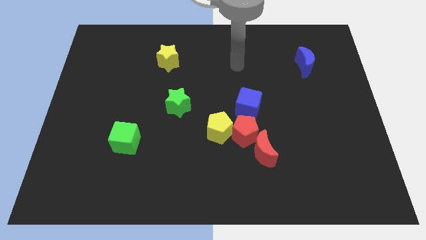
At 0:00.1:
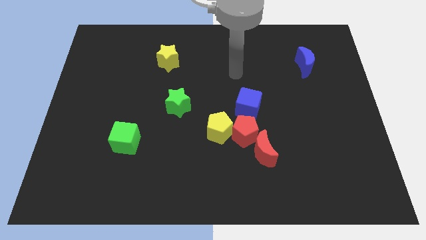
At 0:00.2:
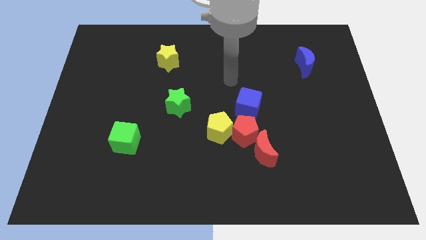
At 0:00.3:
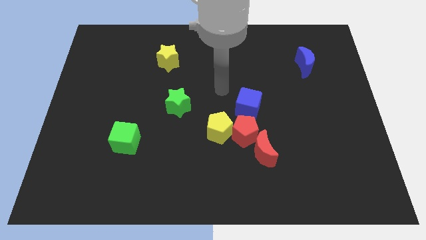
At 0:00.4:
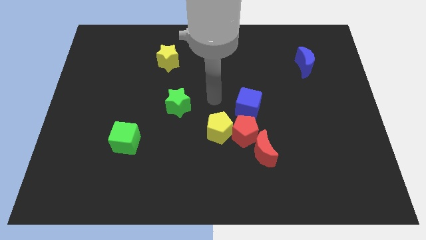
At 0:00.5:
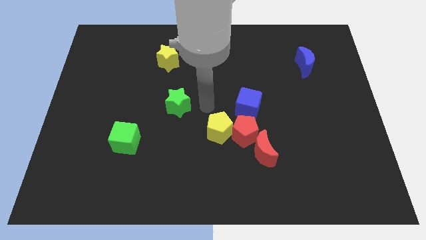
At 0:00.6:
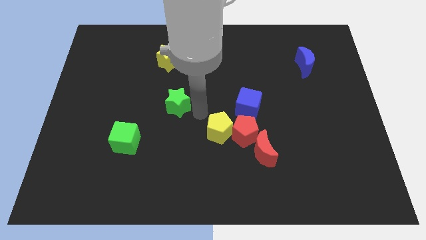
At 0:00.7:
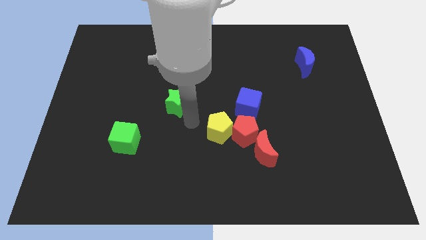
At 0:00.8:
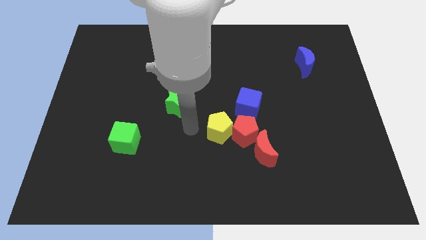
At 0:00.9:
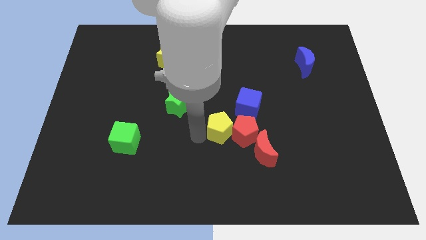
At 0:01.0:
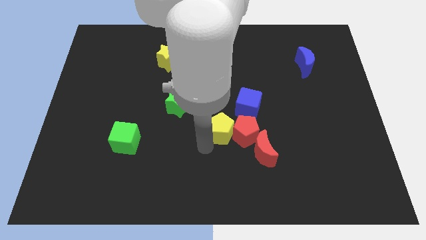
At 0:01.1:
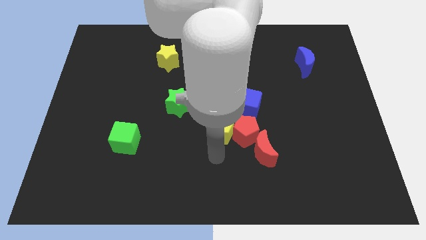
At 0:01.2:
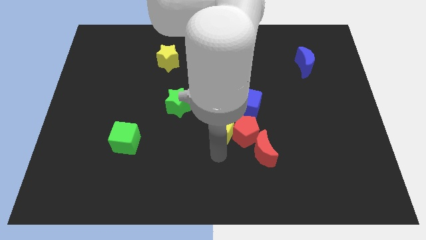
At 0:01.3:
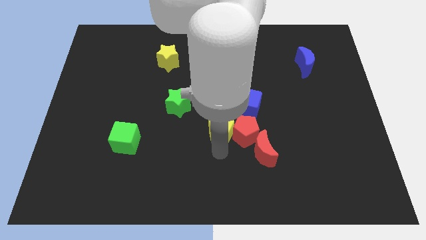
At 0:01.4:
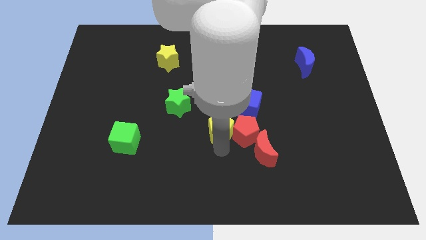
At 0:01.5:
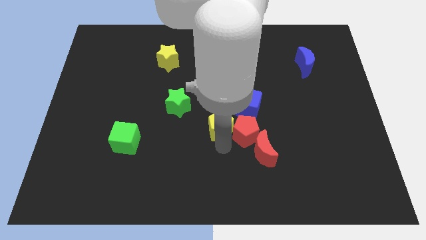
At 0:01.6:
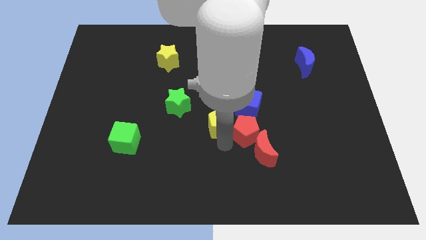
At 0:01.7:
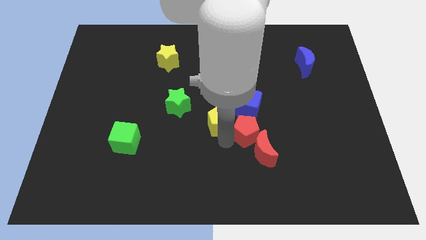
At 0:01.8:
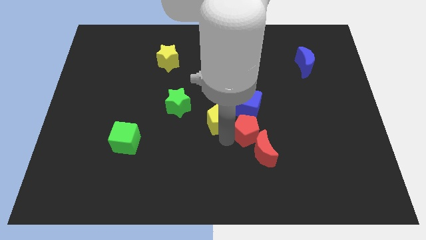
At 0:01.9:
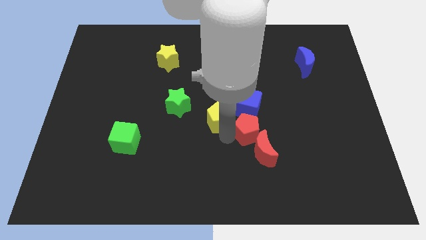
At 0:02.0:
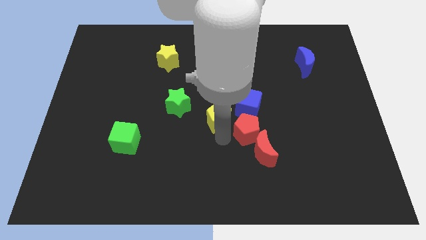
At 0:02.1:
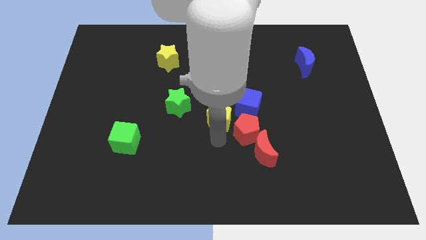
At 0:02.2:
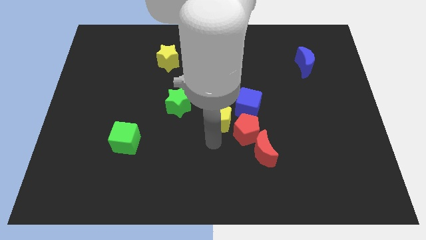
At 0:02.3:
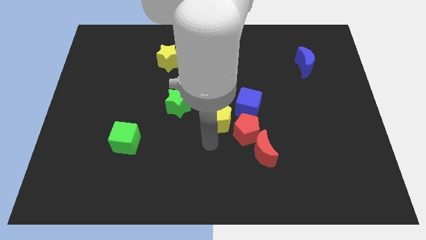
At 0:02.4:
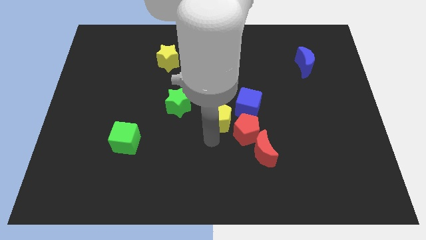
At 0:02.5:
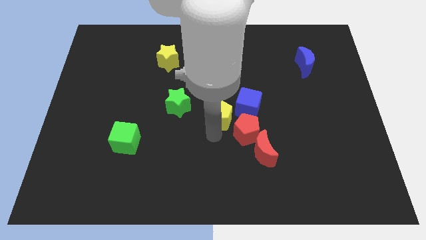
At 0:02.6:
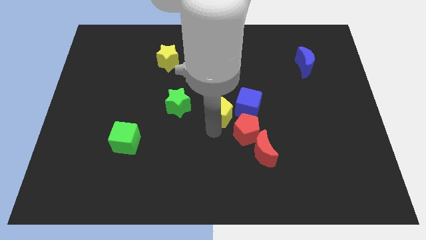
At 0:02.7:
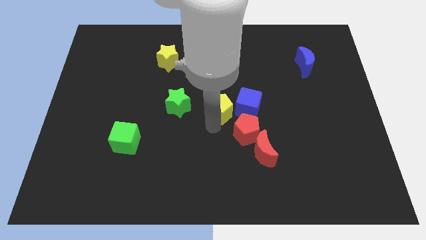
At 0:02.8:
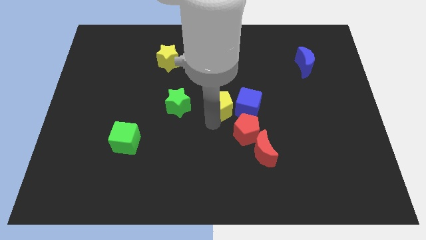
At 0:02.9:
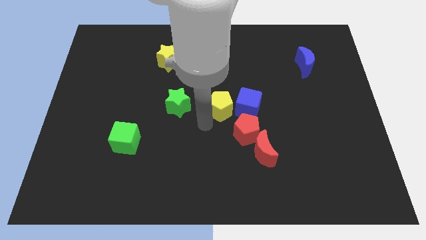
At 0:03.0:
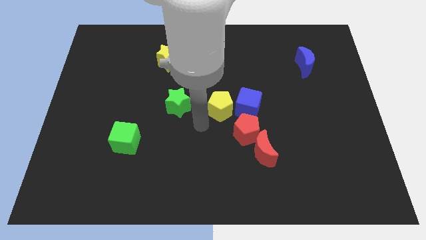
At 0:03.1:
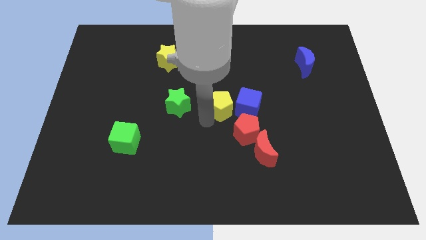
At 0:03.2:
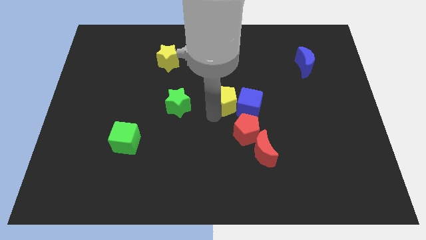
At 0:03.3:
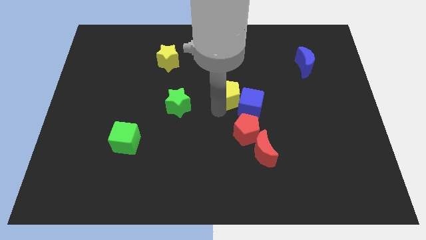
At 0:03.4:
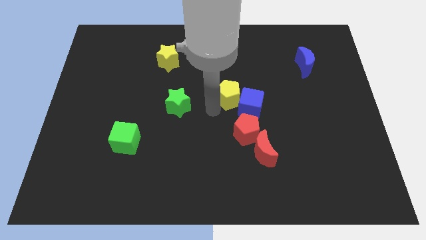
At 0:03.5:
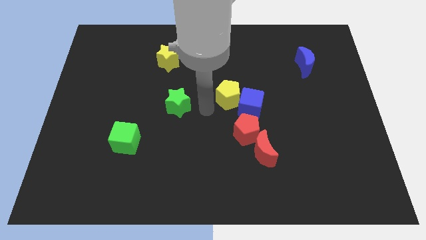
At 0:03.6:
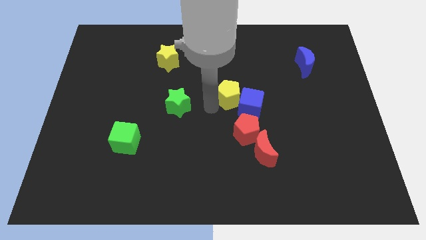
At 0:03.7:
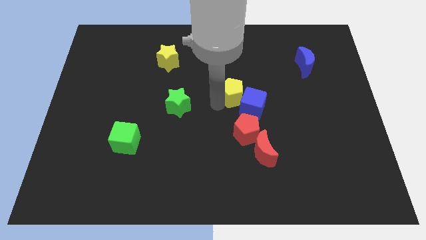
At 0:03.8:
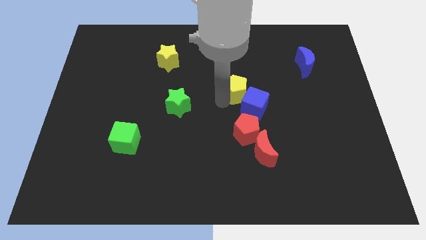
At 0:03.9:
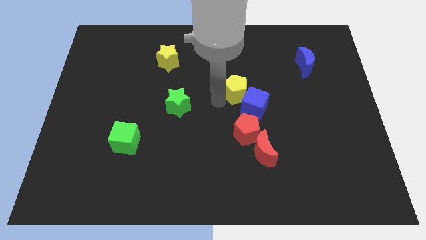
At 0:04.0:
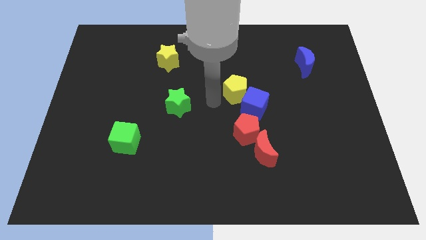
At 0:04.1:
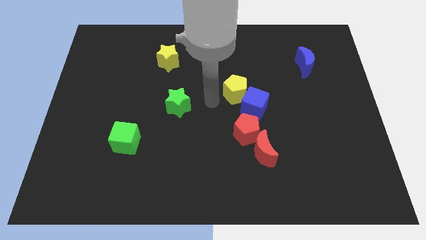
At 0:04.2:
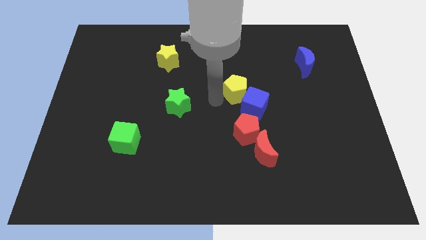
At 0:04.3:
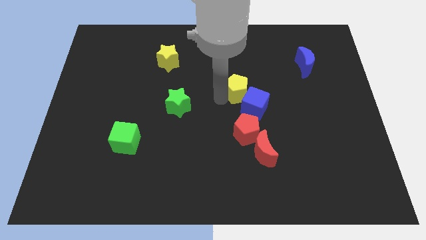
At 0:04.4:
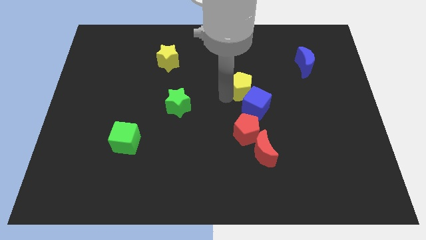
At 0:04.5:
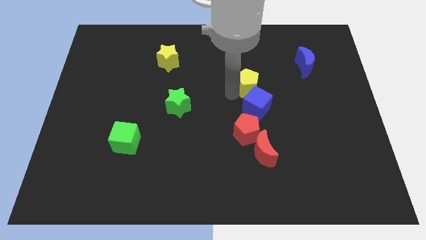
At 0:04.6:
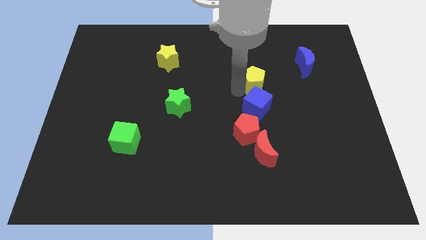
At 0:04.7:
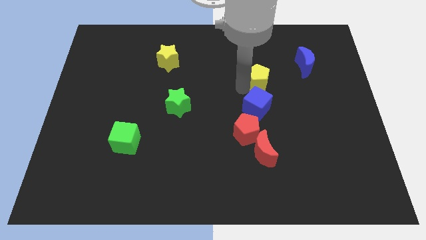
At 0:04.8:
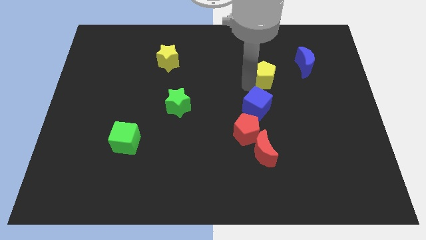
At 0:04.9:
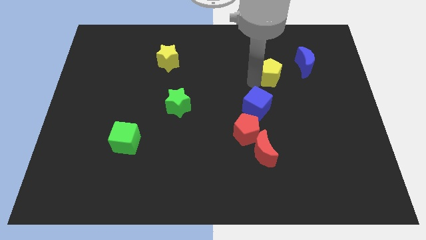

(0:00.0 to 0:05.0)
push the yellow pentagon to the bottom left side of the blue moon

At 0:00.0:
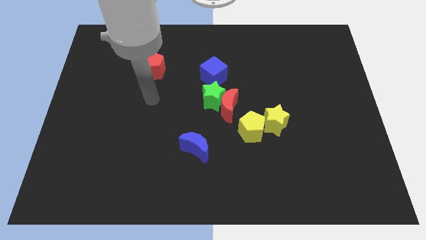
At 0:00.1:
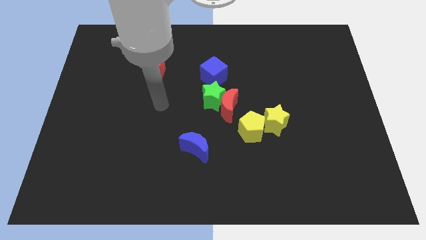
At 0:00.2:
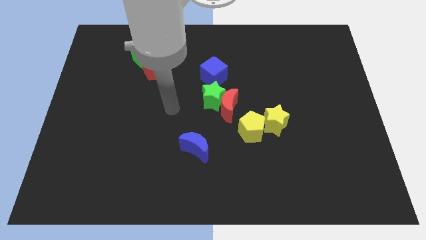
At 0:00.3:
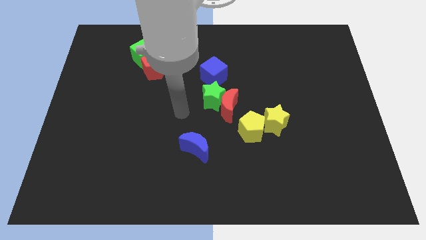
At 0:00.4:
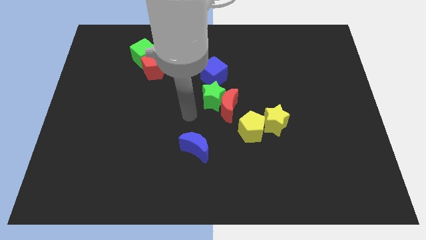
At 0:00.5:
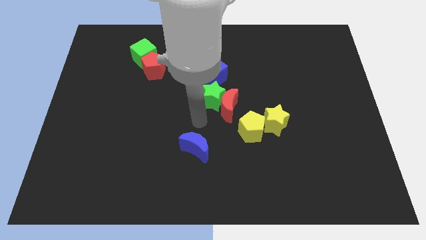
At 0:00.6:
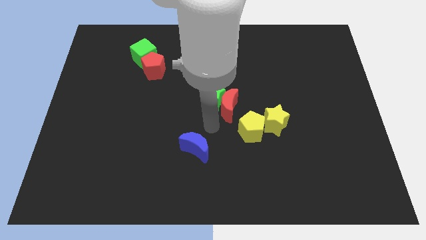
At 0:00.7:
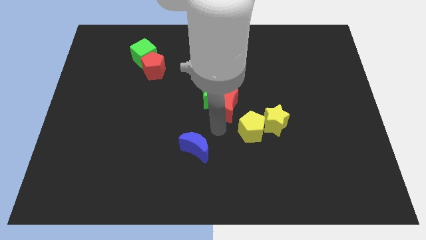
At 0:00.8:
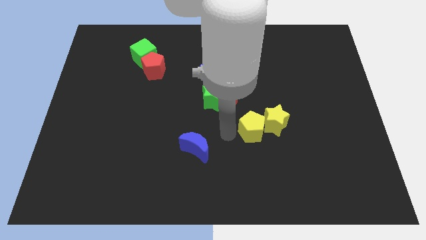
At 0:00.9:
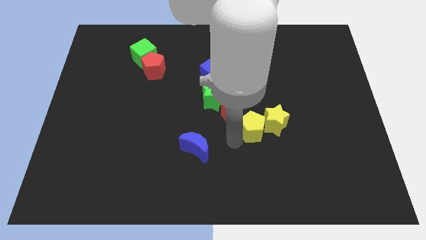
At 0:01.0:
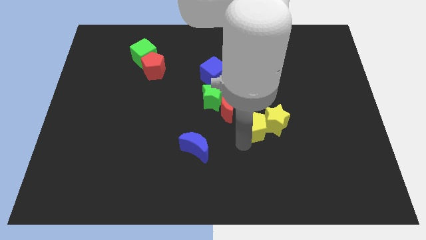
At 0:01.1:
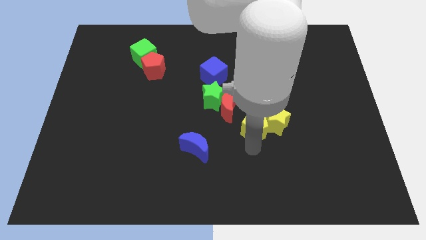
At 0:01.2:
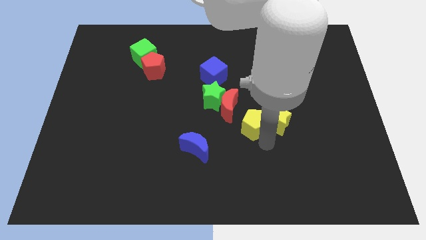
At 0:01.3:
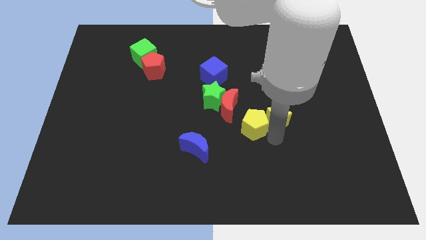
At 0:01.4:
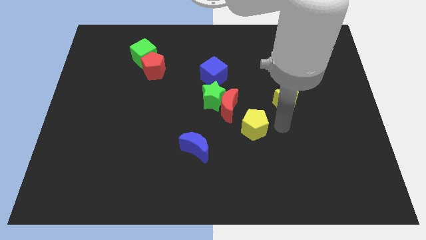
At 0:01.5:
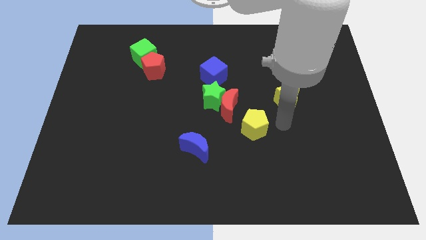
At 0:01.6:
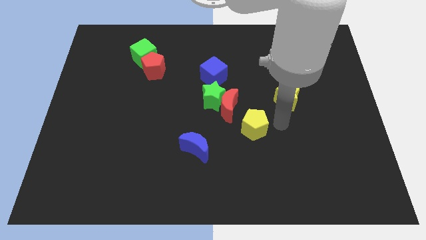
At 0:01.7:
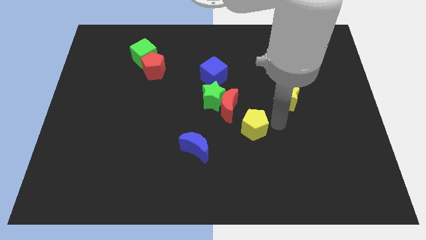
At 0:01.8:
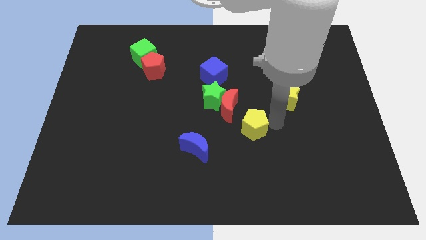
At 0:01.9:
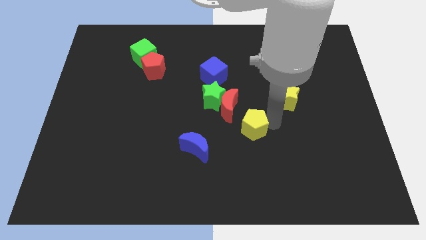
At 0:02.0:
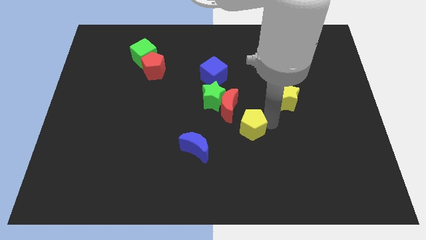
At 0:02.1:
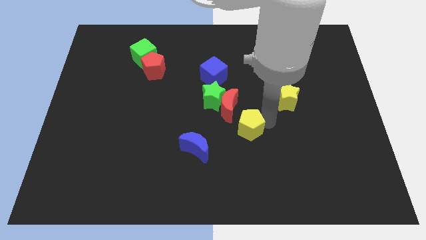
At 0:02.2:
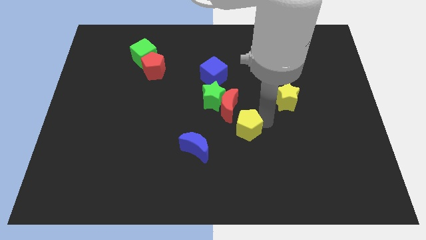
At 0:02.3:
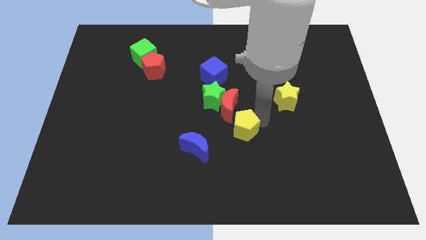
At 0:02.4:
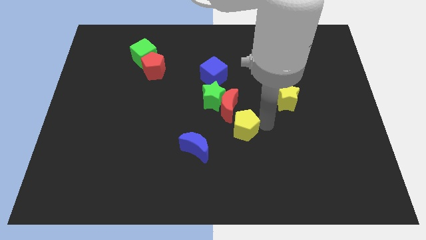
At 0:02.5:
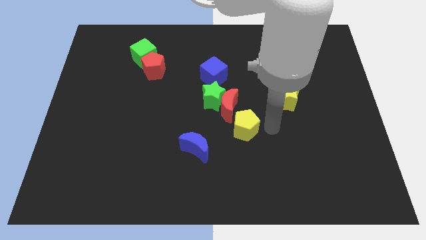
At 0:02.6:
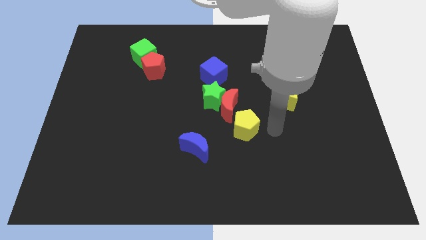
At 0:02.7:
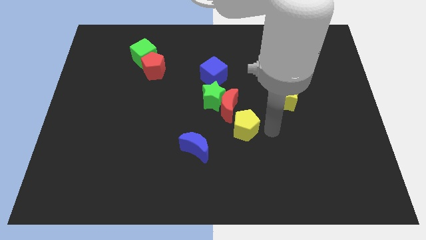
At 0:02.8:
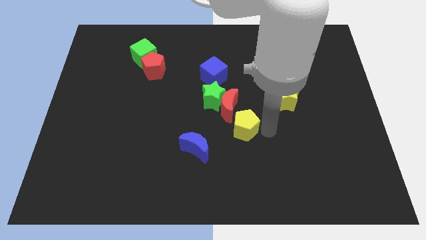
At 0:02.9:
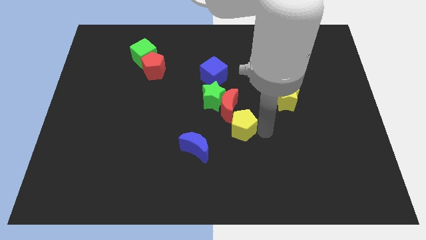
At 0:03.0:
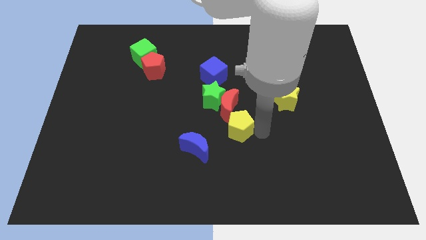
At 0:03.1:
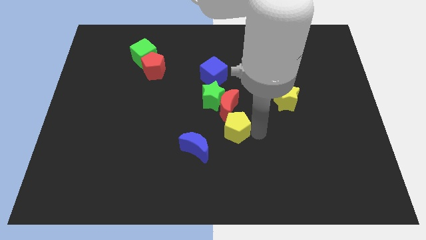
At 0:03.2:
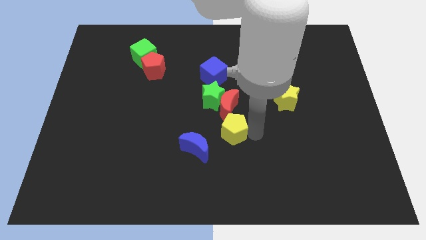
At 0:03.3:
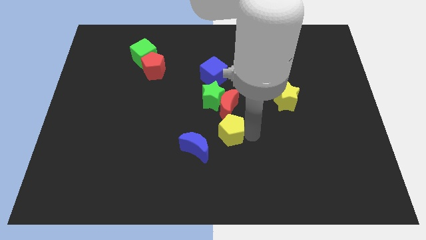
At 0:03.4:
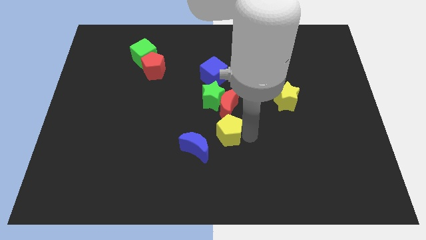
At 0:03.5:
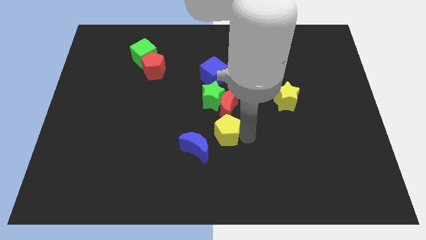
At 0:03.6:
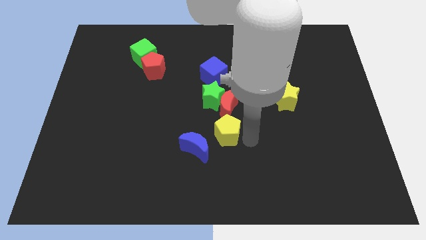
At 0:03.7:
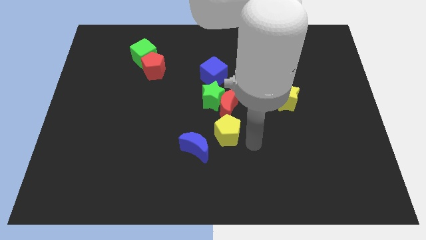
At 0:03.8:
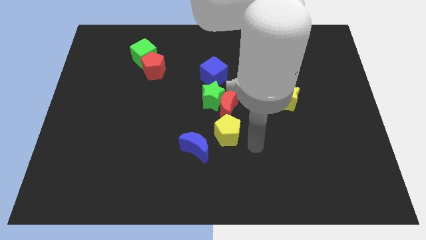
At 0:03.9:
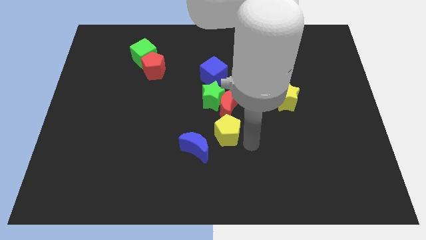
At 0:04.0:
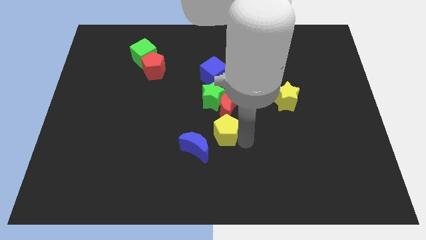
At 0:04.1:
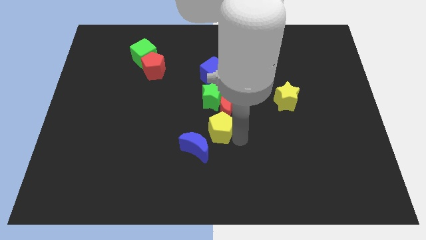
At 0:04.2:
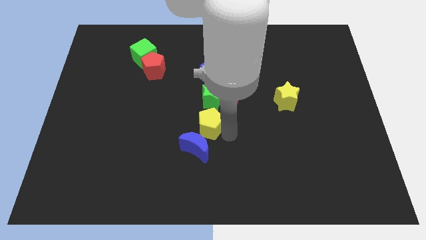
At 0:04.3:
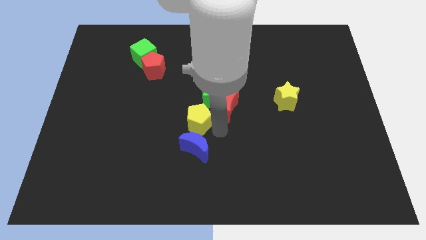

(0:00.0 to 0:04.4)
put the yellow pentagon left of the red moon
